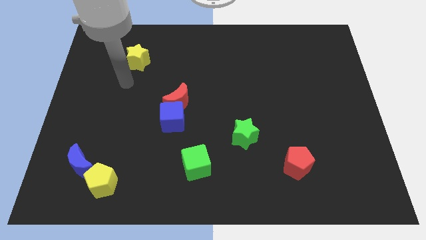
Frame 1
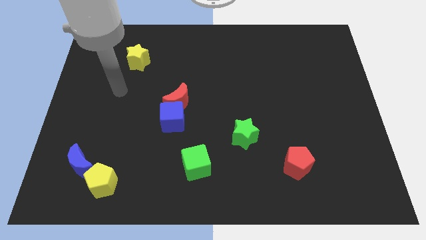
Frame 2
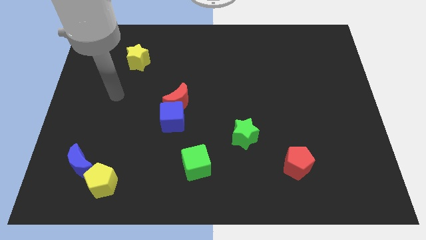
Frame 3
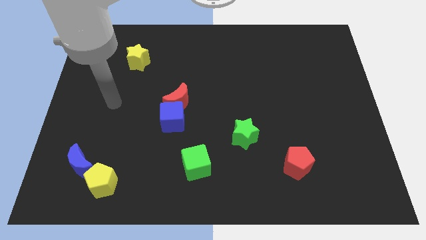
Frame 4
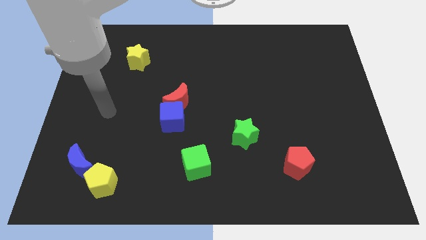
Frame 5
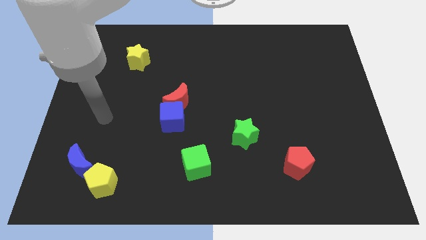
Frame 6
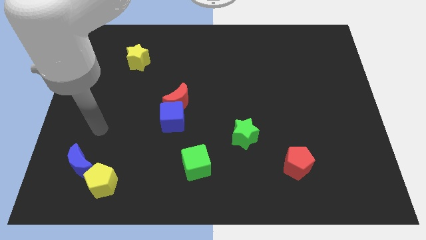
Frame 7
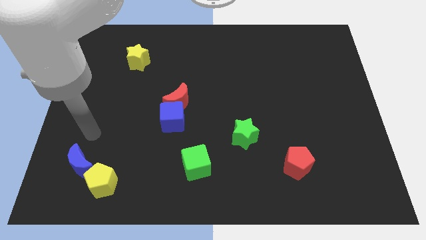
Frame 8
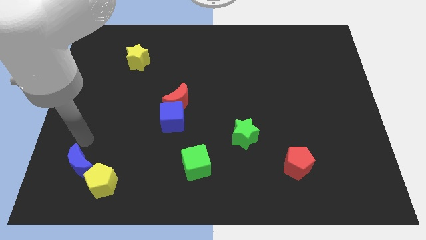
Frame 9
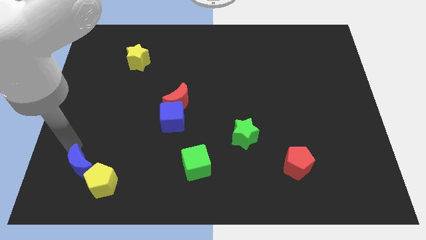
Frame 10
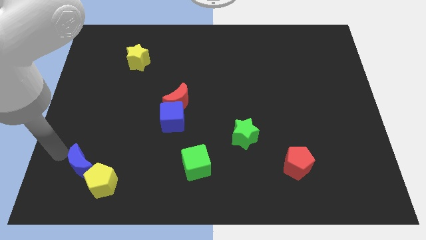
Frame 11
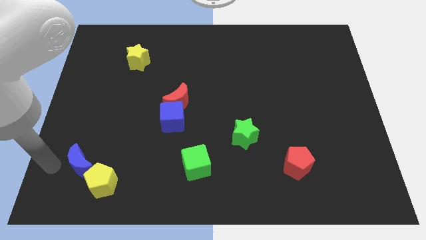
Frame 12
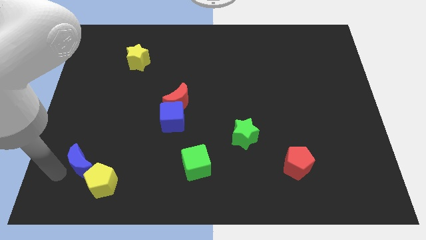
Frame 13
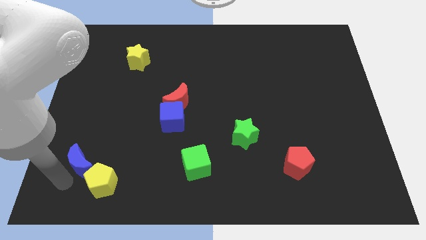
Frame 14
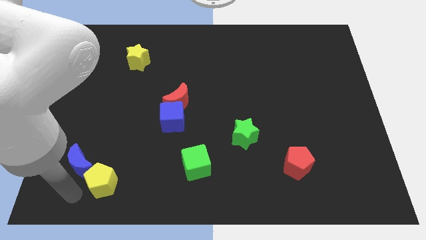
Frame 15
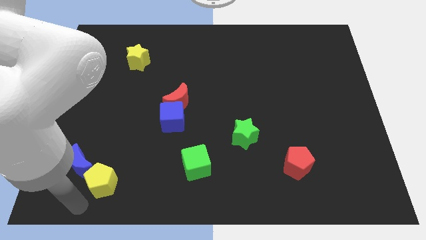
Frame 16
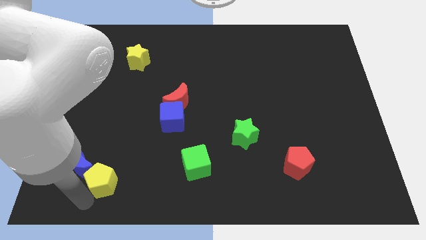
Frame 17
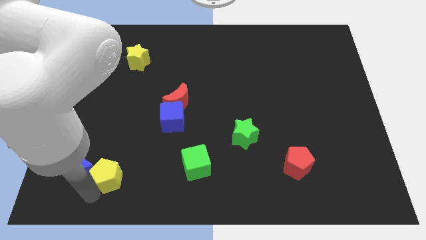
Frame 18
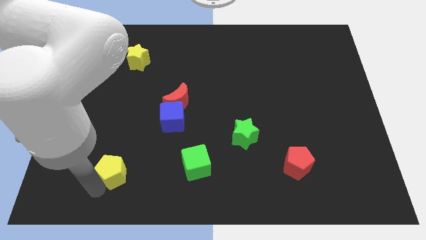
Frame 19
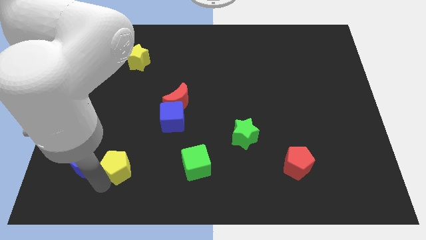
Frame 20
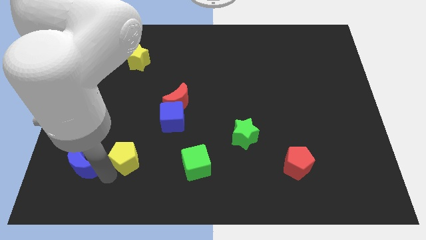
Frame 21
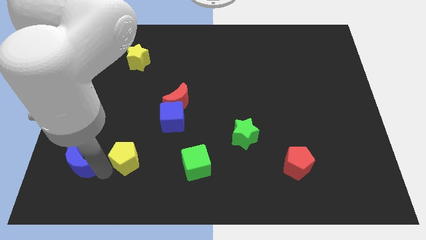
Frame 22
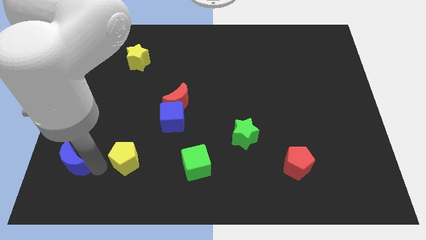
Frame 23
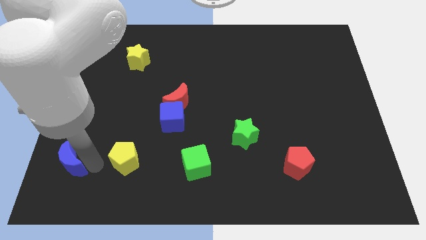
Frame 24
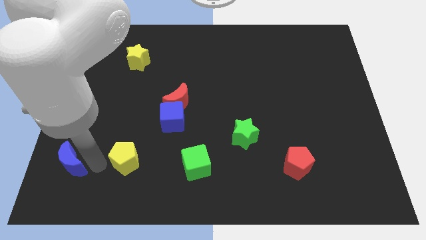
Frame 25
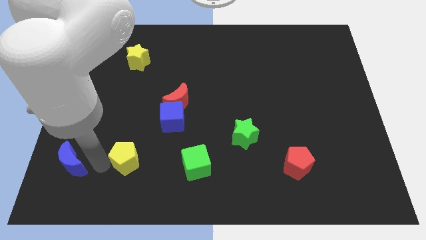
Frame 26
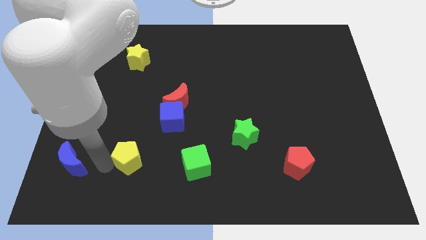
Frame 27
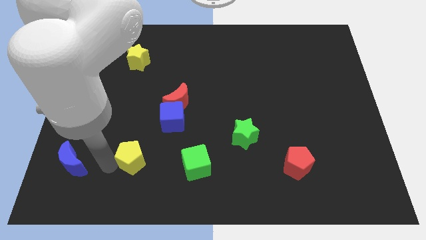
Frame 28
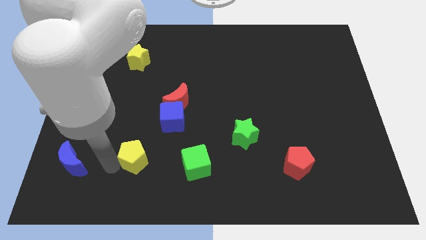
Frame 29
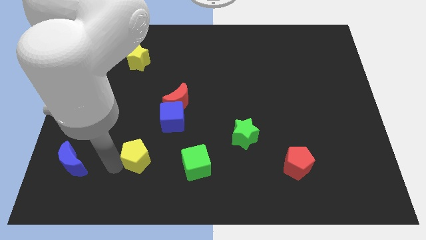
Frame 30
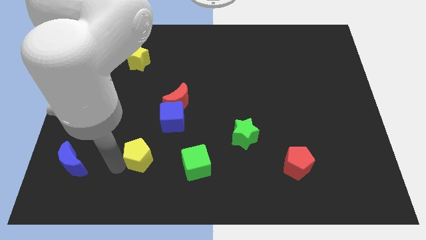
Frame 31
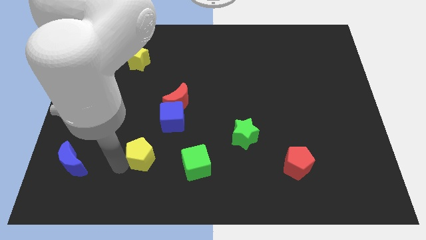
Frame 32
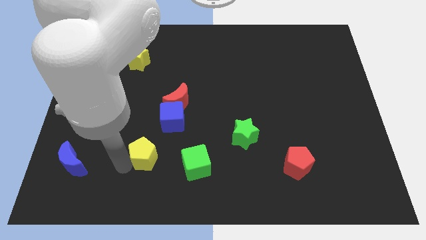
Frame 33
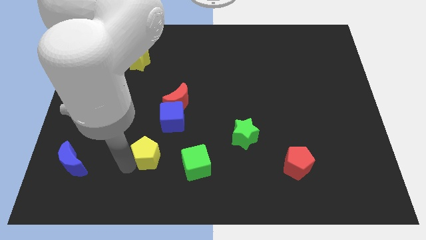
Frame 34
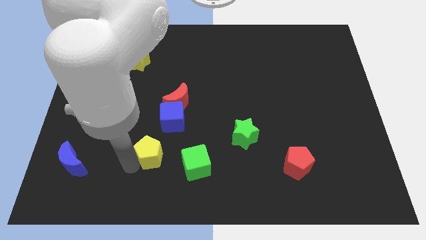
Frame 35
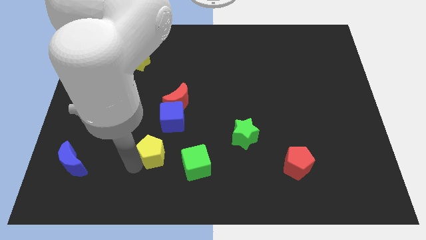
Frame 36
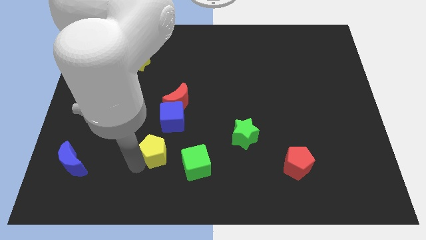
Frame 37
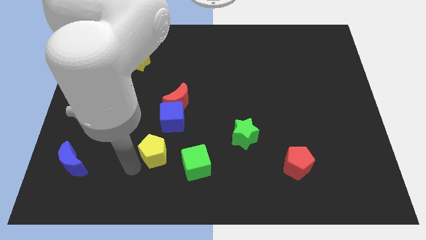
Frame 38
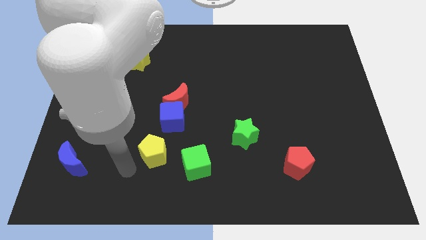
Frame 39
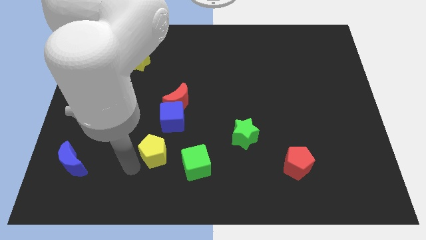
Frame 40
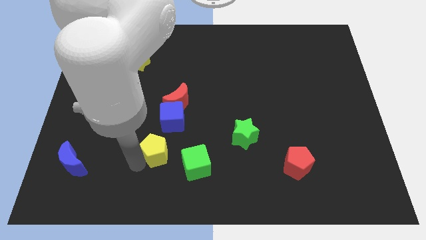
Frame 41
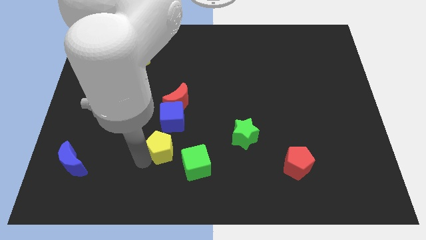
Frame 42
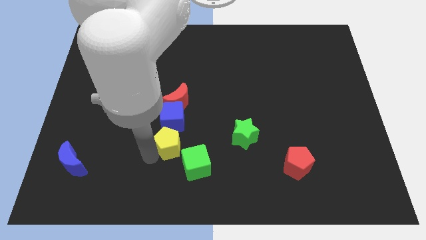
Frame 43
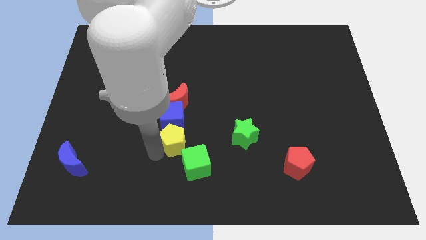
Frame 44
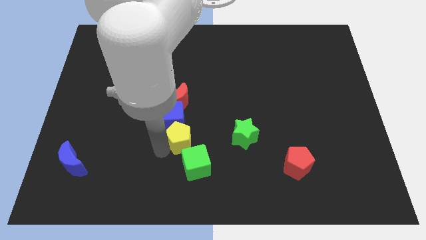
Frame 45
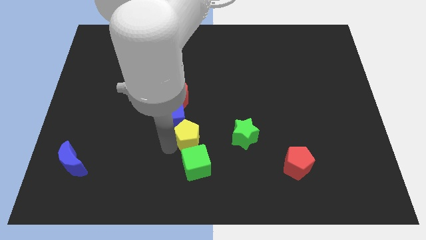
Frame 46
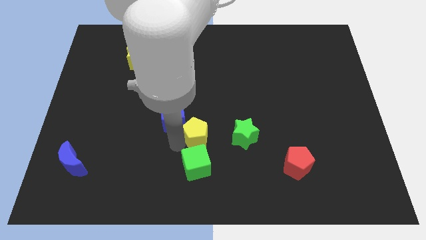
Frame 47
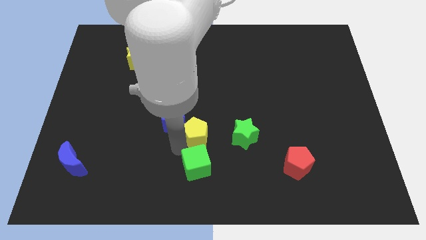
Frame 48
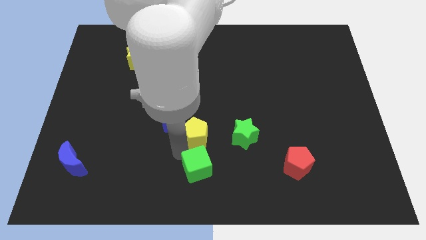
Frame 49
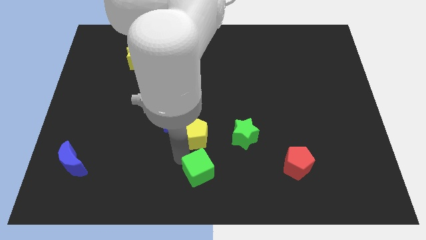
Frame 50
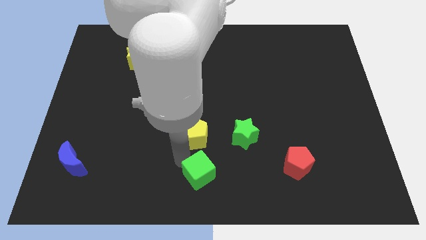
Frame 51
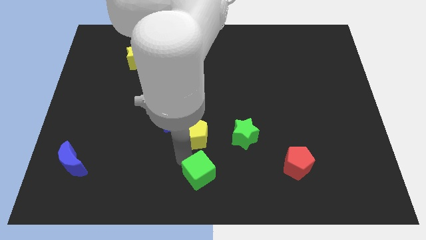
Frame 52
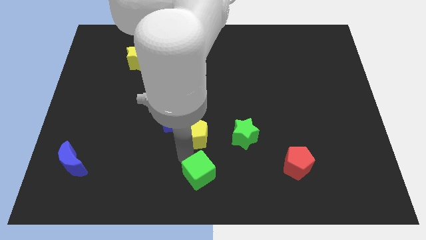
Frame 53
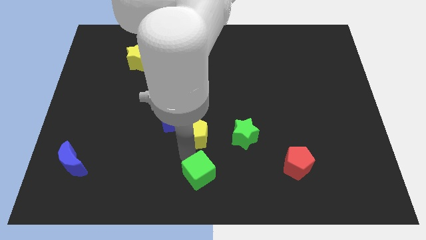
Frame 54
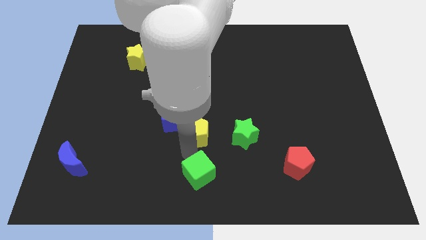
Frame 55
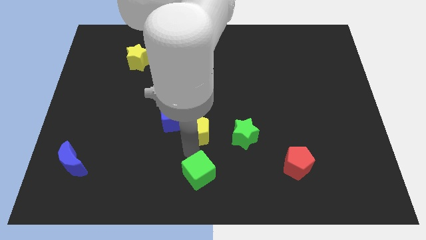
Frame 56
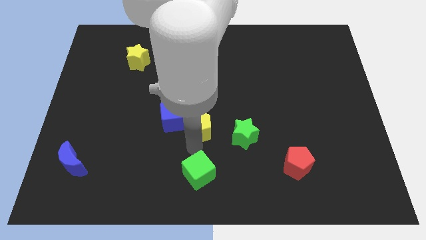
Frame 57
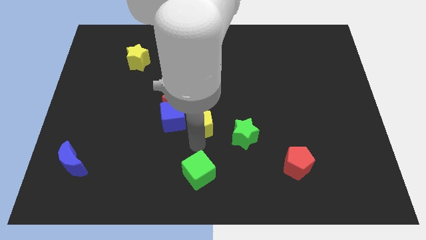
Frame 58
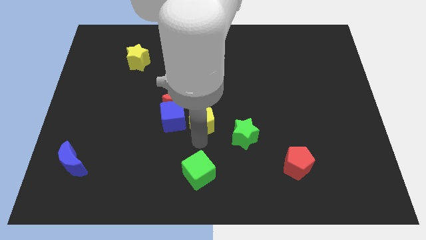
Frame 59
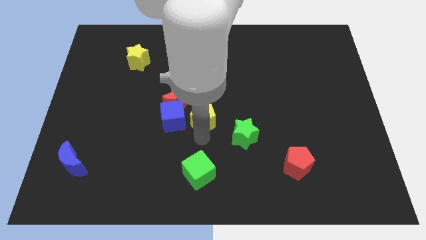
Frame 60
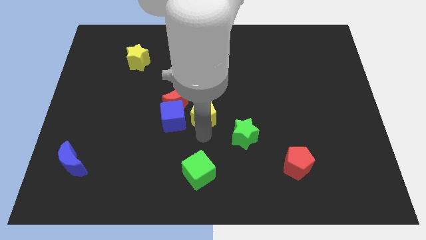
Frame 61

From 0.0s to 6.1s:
put the yellow pentagon right of the red moon

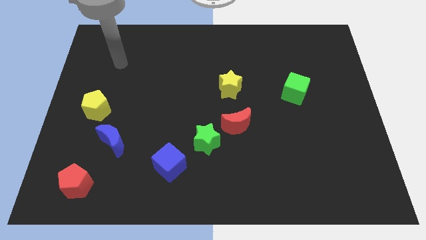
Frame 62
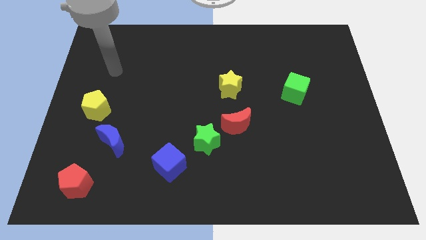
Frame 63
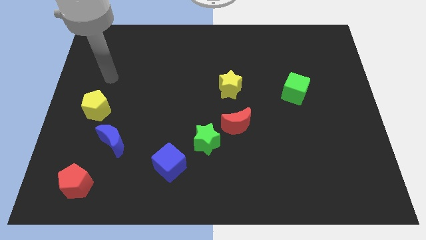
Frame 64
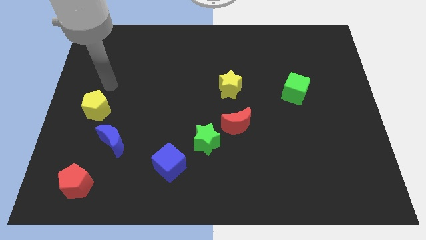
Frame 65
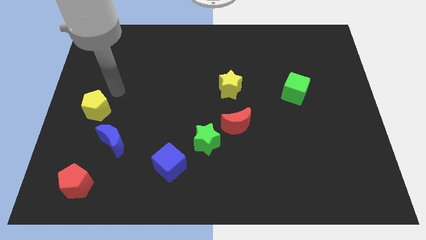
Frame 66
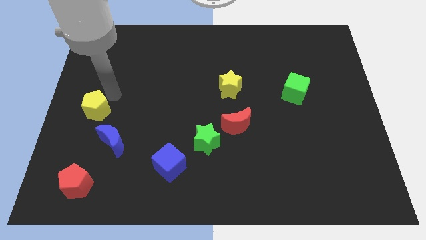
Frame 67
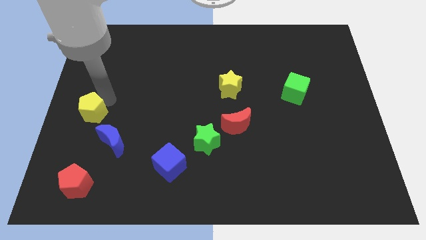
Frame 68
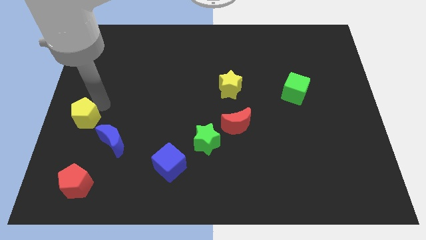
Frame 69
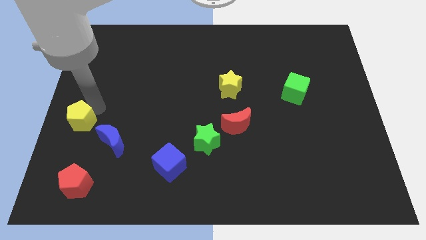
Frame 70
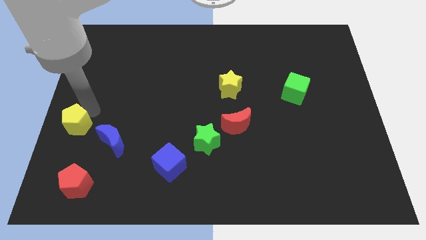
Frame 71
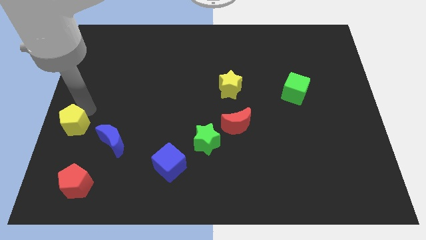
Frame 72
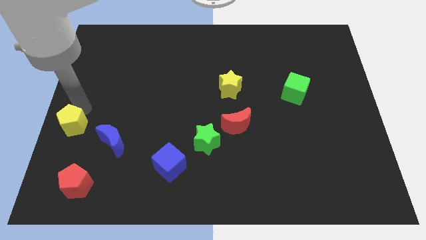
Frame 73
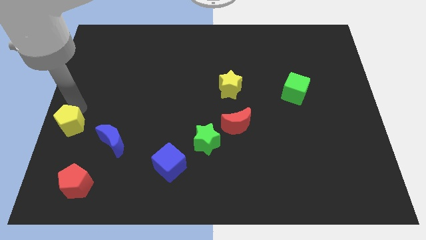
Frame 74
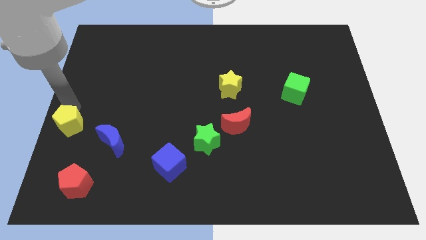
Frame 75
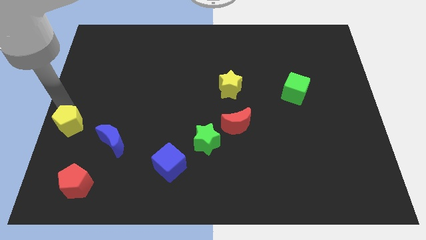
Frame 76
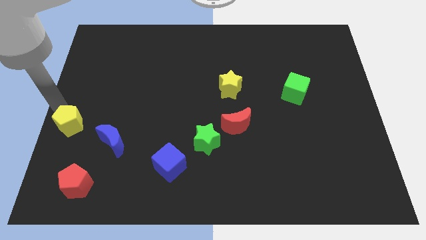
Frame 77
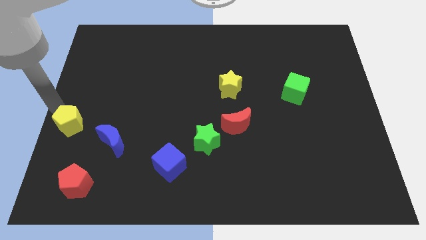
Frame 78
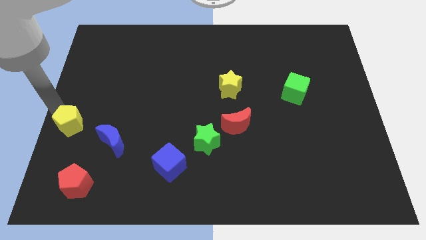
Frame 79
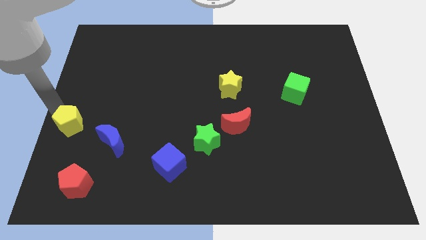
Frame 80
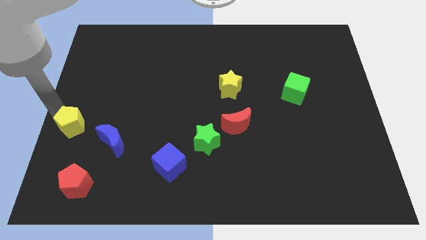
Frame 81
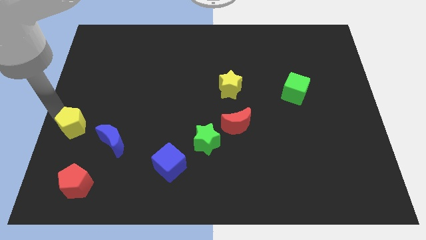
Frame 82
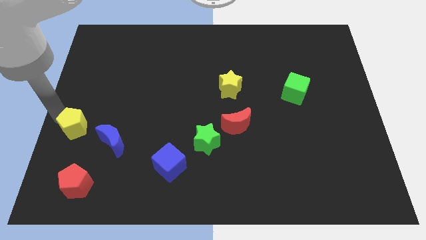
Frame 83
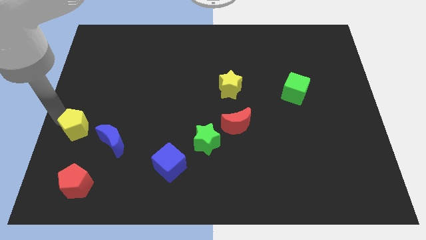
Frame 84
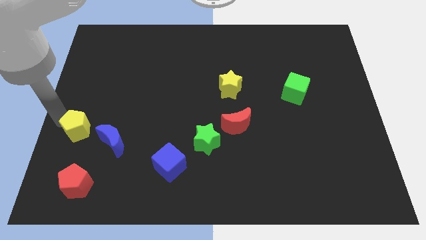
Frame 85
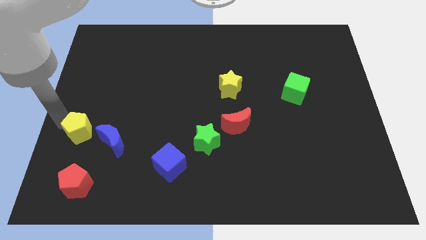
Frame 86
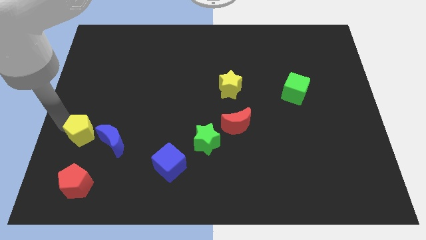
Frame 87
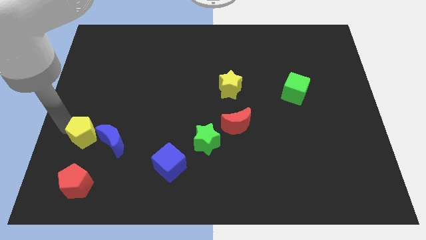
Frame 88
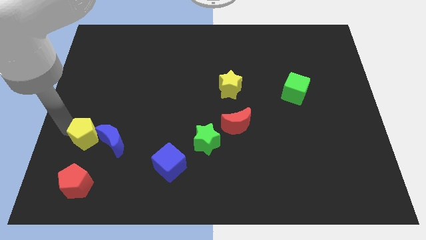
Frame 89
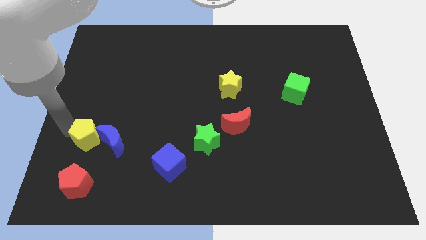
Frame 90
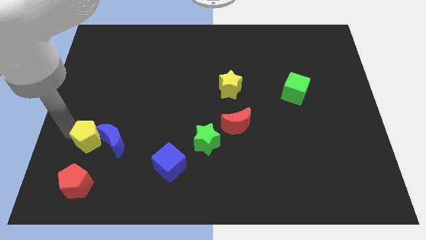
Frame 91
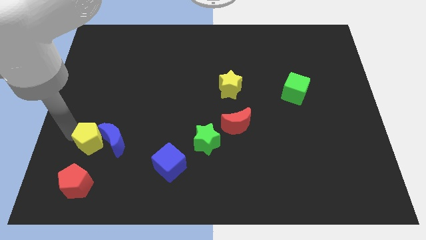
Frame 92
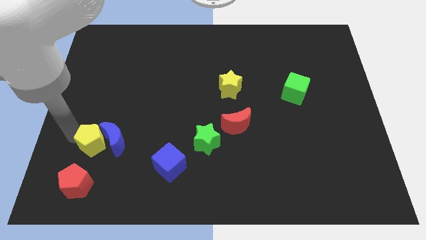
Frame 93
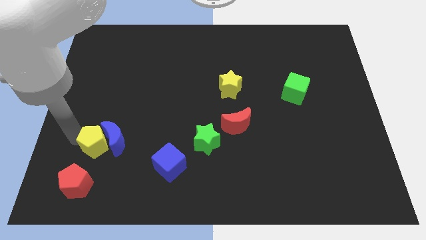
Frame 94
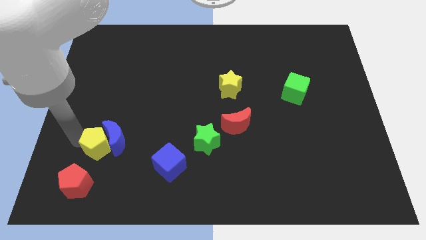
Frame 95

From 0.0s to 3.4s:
slide the yellow pentagon diagonally up and to the right of the red pentagon
